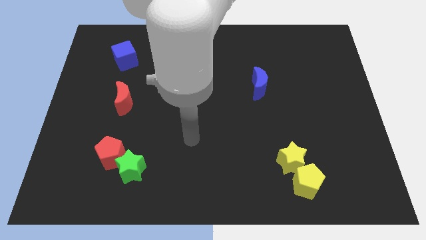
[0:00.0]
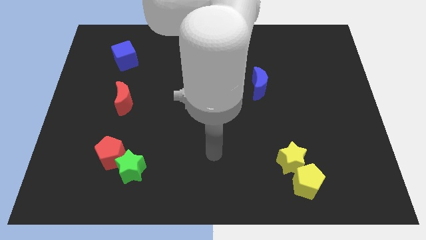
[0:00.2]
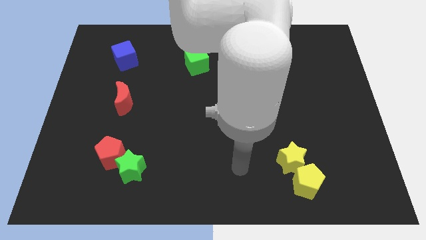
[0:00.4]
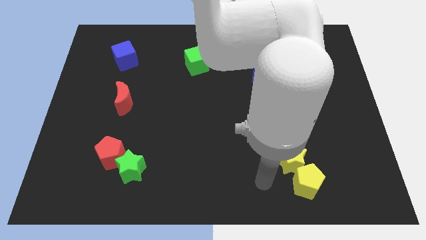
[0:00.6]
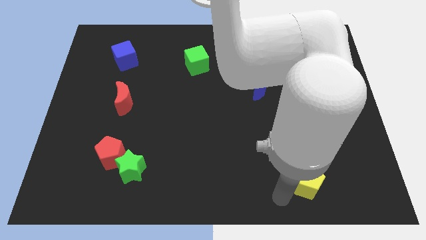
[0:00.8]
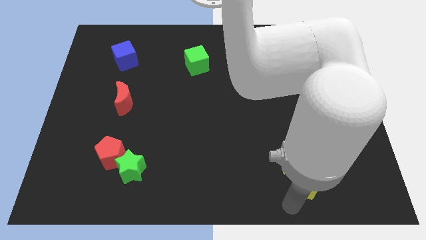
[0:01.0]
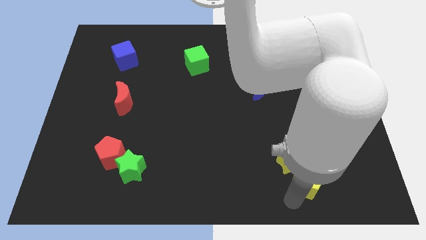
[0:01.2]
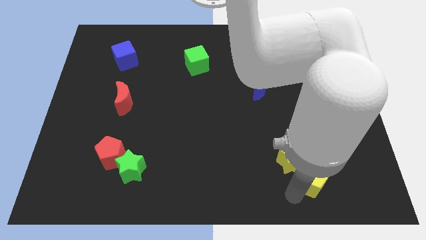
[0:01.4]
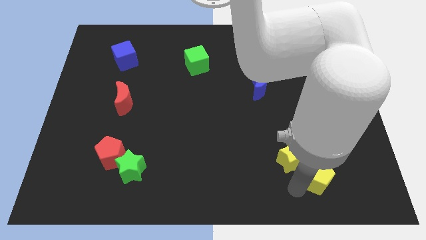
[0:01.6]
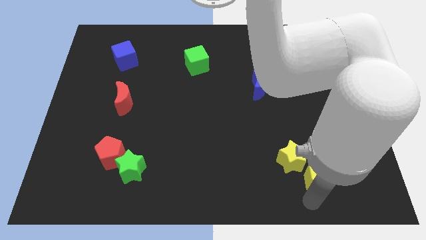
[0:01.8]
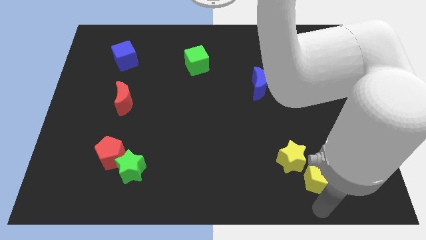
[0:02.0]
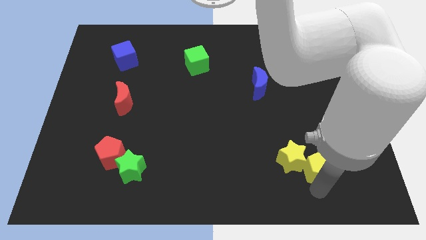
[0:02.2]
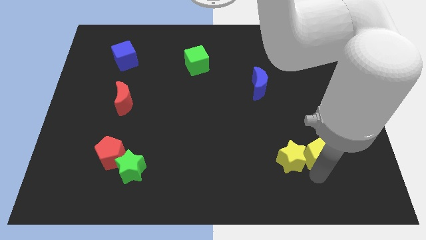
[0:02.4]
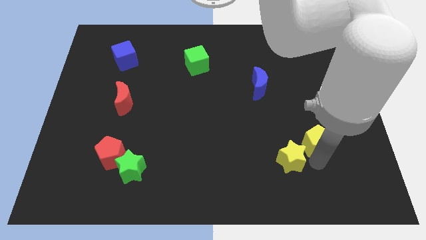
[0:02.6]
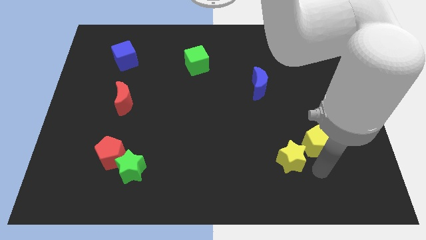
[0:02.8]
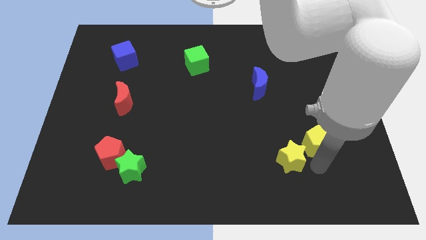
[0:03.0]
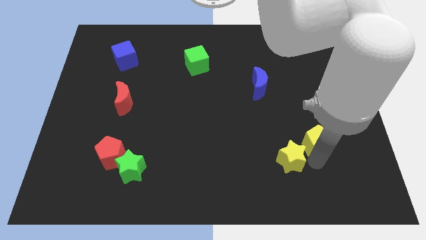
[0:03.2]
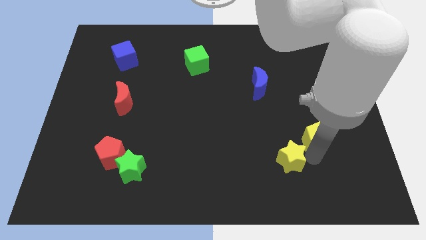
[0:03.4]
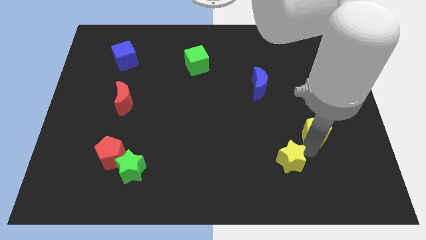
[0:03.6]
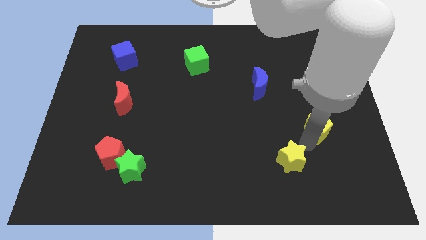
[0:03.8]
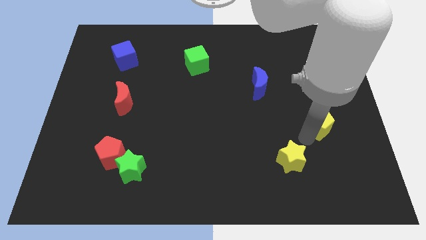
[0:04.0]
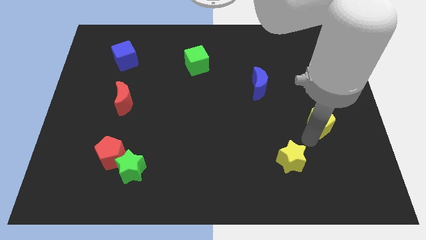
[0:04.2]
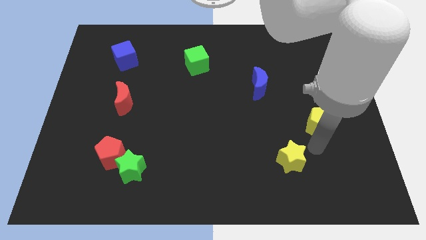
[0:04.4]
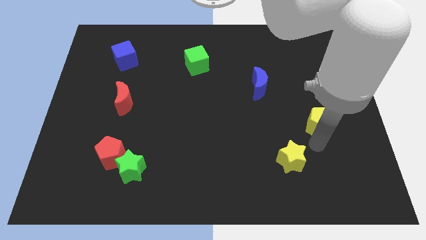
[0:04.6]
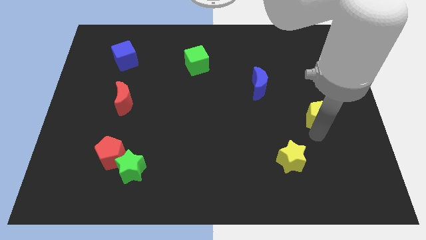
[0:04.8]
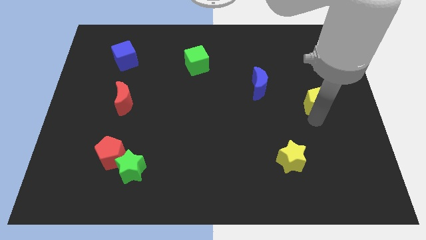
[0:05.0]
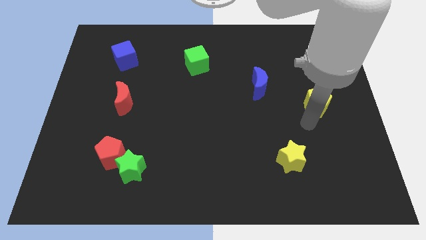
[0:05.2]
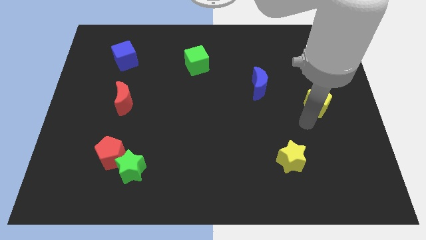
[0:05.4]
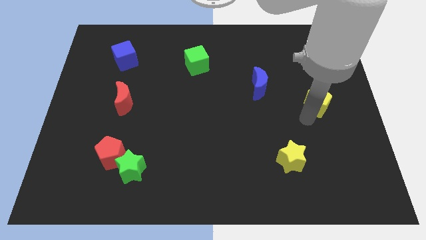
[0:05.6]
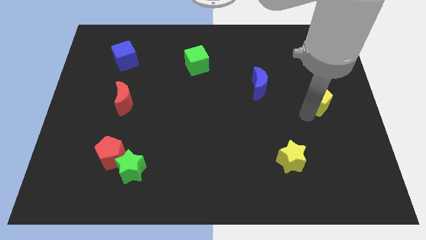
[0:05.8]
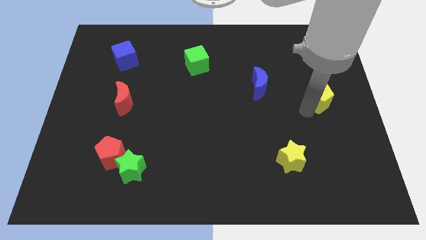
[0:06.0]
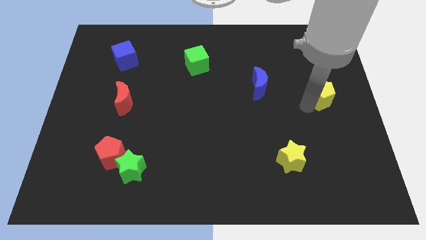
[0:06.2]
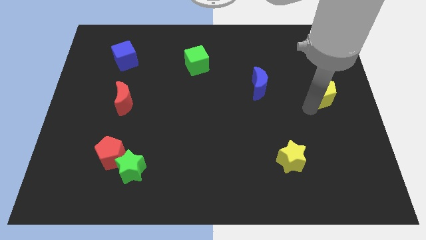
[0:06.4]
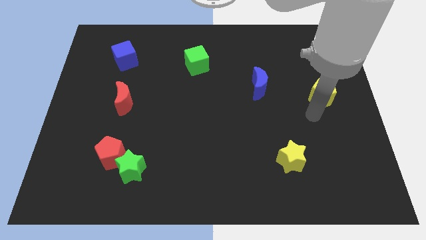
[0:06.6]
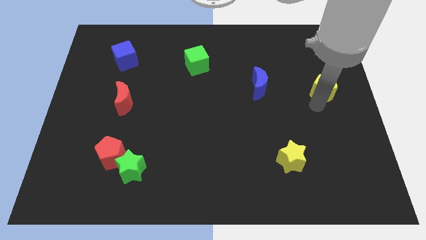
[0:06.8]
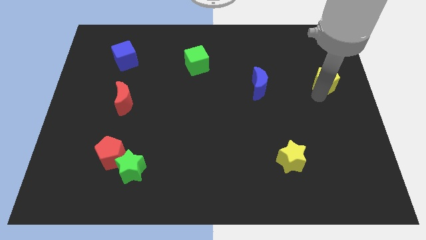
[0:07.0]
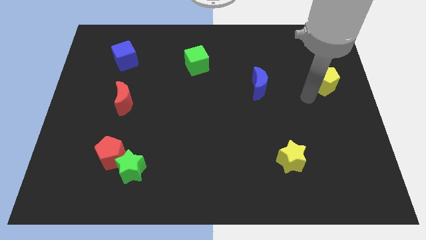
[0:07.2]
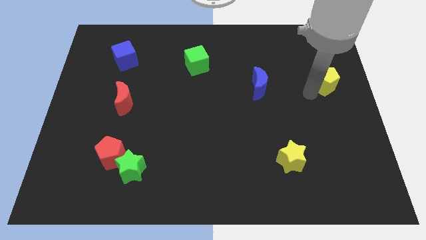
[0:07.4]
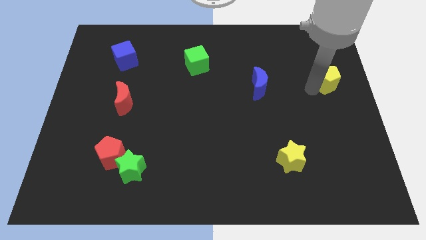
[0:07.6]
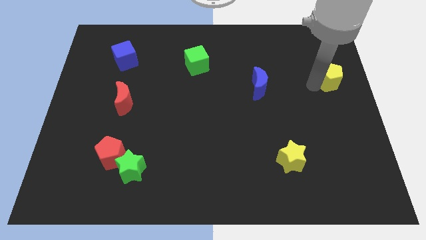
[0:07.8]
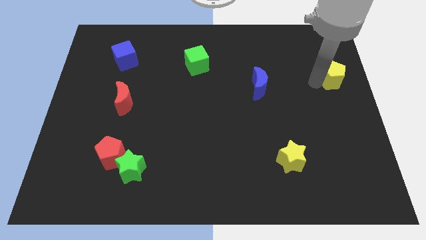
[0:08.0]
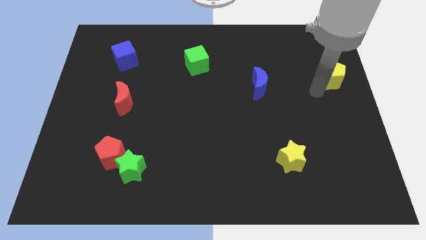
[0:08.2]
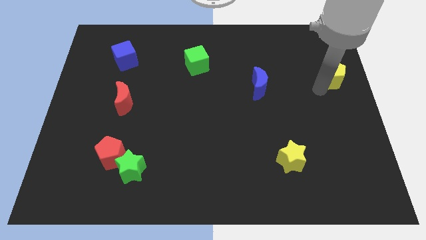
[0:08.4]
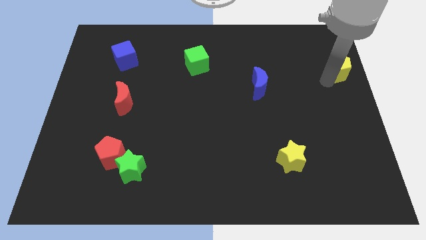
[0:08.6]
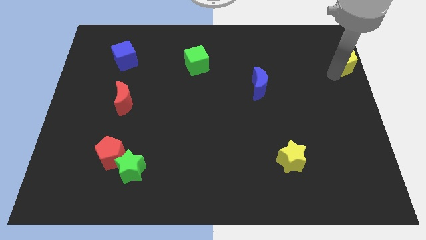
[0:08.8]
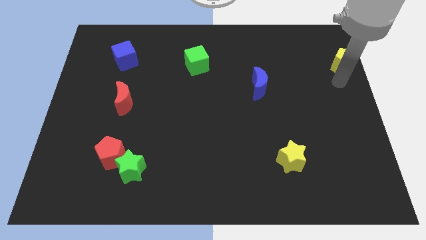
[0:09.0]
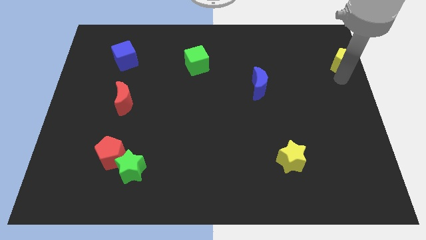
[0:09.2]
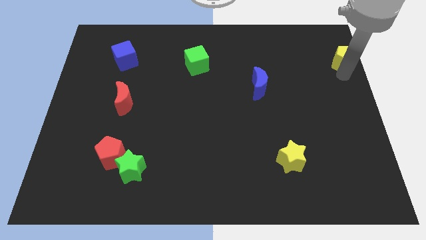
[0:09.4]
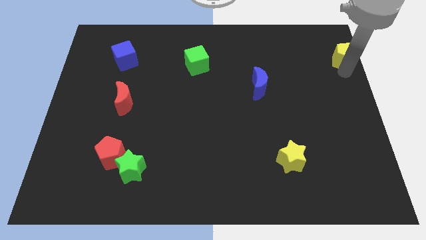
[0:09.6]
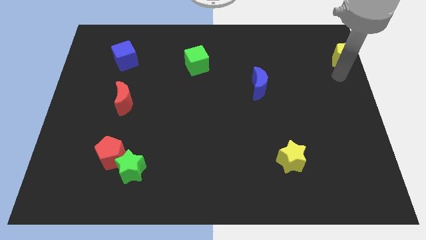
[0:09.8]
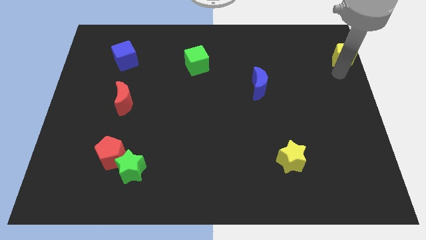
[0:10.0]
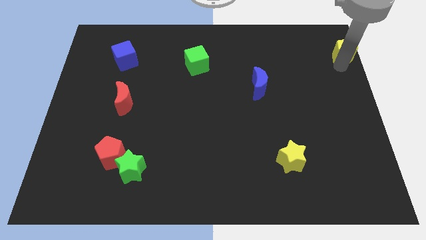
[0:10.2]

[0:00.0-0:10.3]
slide the yellow pentagon to the top right corner

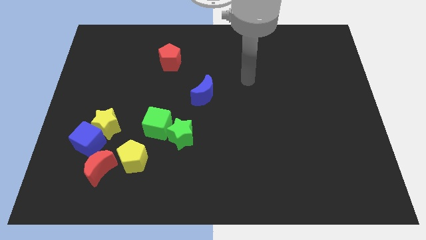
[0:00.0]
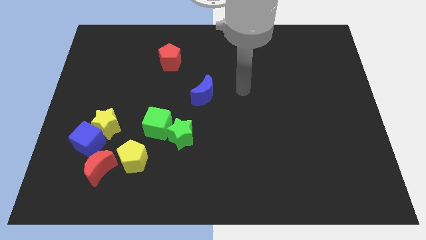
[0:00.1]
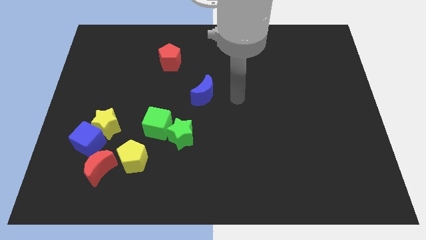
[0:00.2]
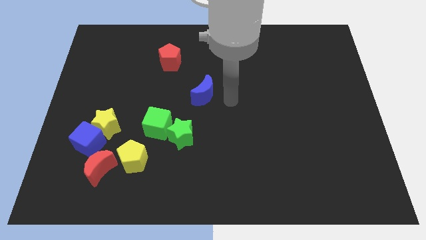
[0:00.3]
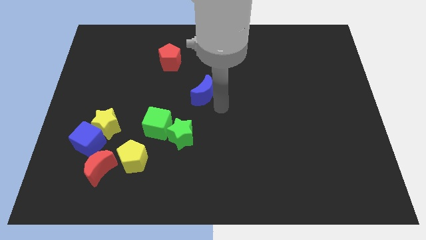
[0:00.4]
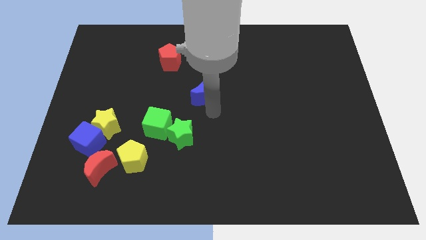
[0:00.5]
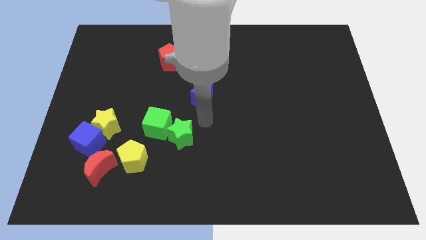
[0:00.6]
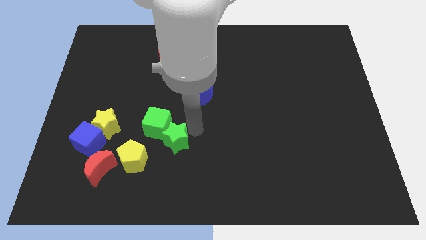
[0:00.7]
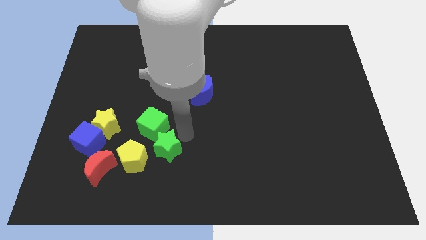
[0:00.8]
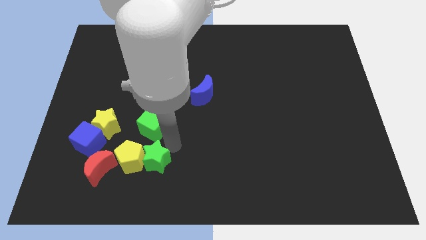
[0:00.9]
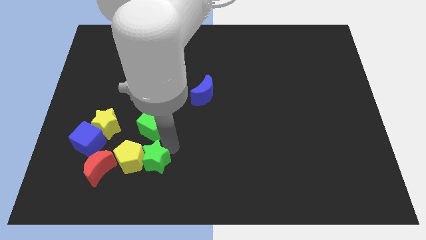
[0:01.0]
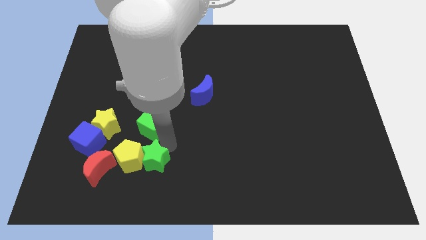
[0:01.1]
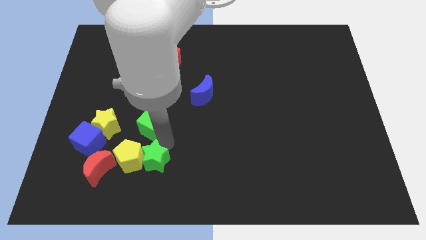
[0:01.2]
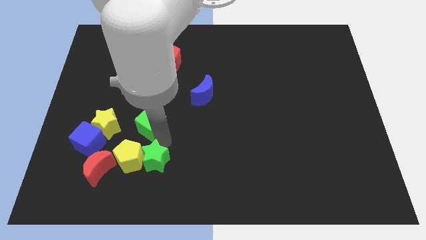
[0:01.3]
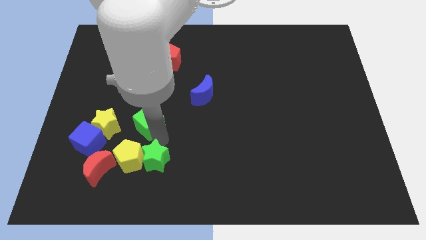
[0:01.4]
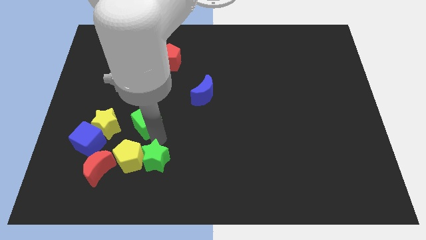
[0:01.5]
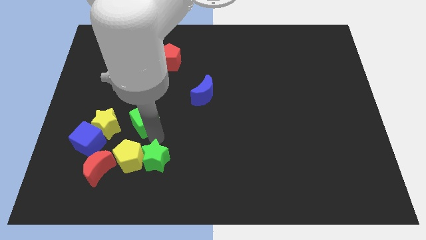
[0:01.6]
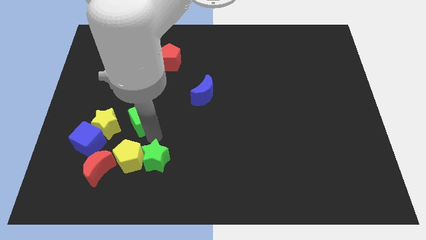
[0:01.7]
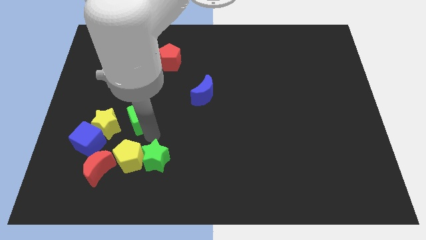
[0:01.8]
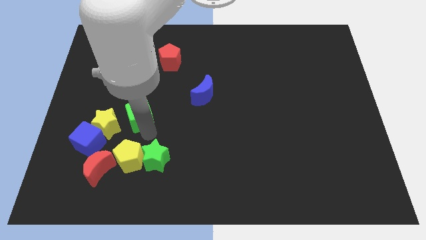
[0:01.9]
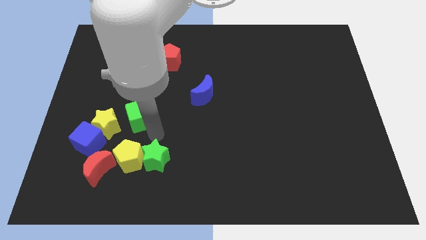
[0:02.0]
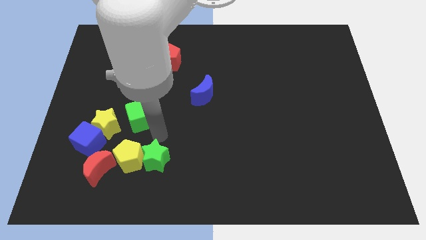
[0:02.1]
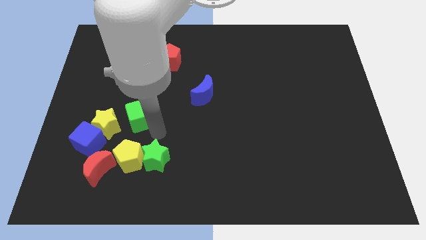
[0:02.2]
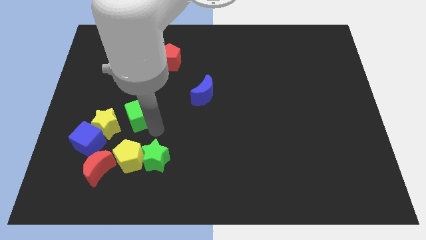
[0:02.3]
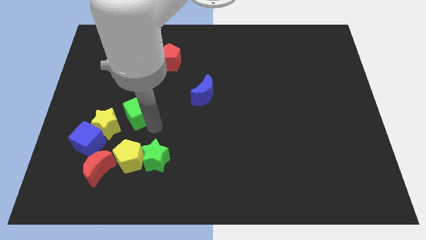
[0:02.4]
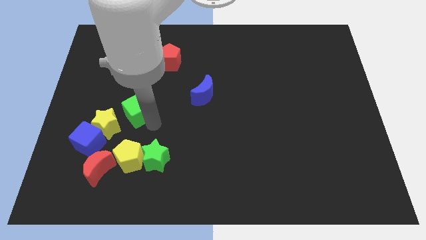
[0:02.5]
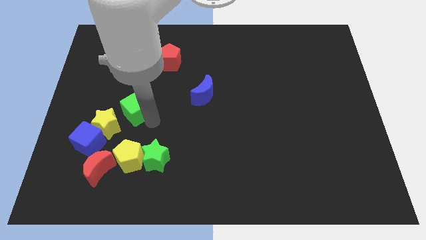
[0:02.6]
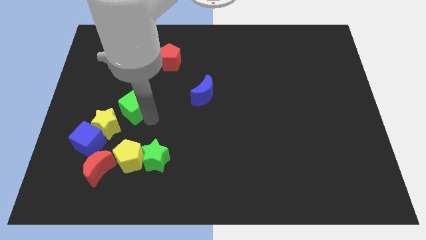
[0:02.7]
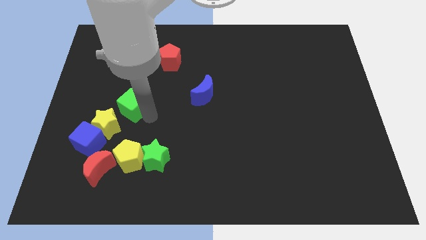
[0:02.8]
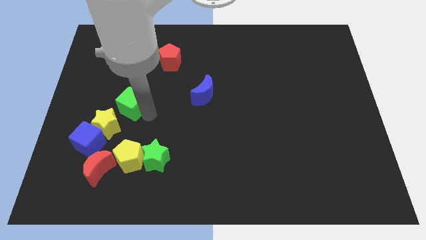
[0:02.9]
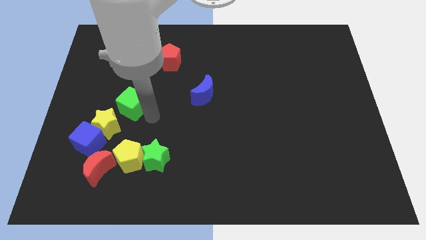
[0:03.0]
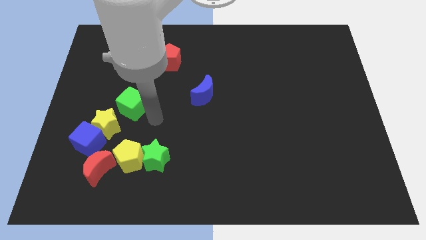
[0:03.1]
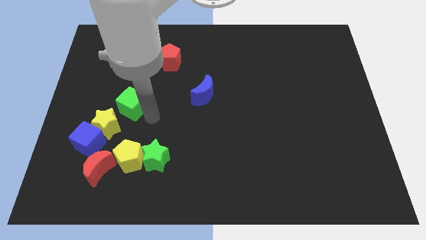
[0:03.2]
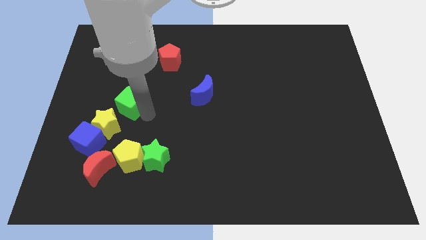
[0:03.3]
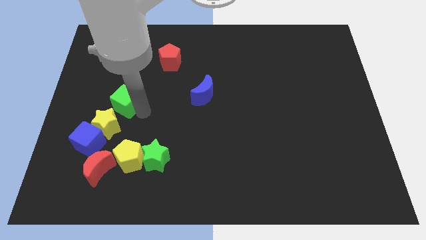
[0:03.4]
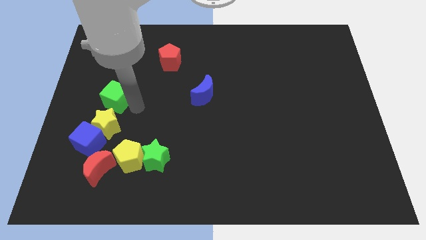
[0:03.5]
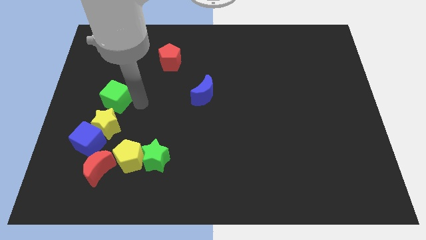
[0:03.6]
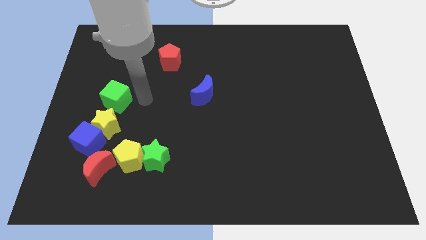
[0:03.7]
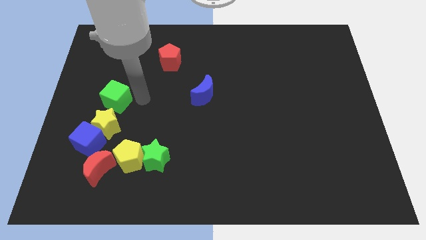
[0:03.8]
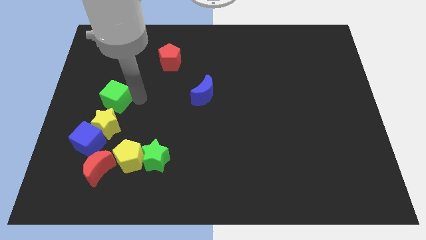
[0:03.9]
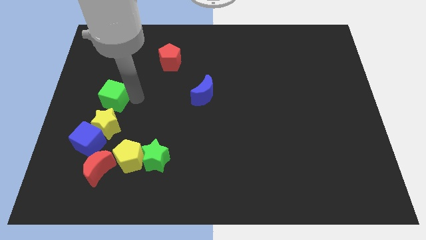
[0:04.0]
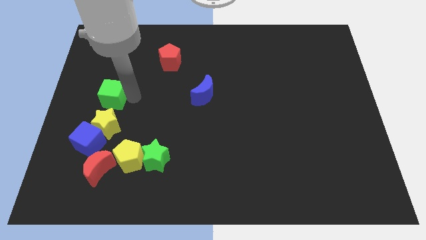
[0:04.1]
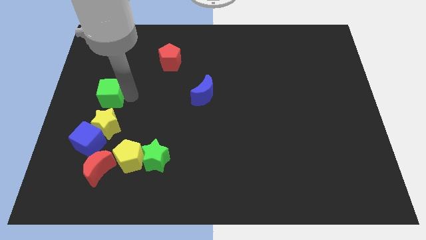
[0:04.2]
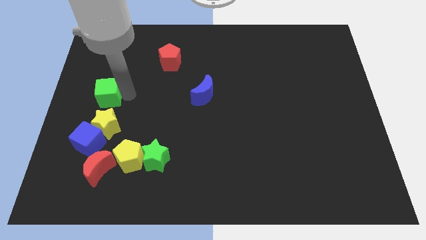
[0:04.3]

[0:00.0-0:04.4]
slide the green cube to the left side of the board
